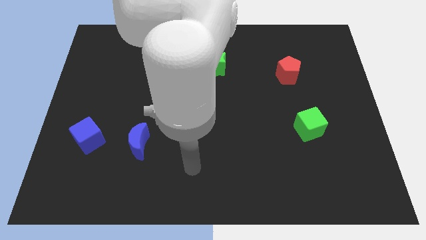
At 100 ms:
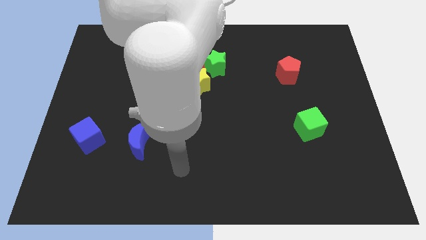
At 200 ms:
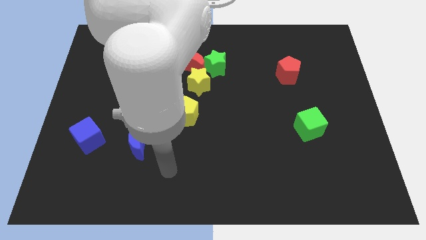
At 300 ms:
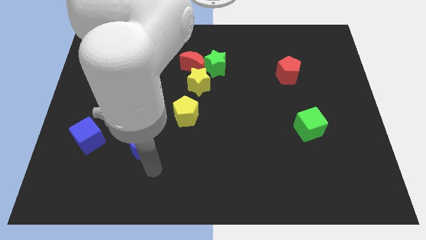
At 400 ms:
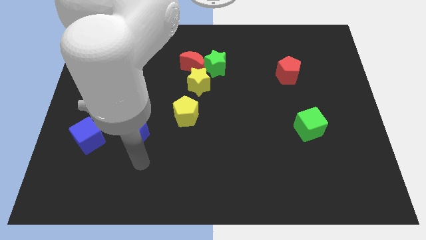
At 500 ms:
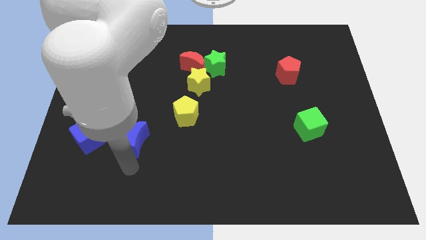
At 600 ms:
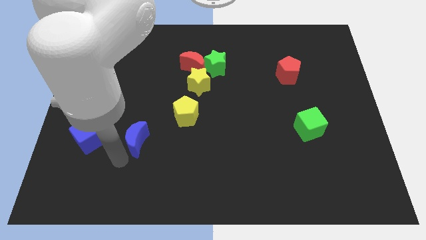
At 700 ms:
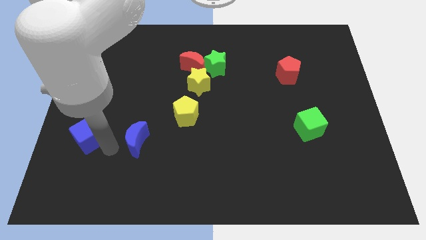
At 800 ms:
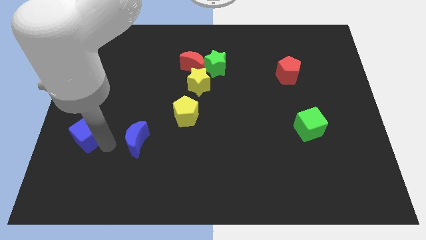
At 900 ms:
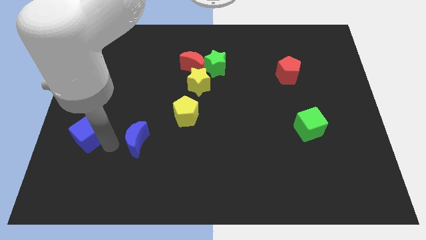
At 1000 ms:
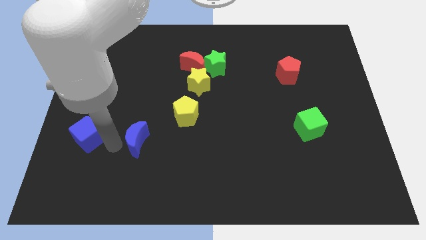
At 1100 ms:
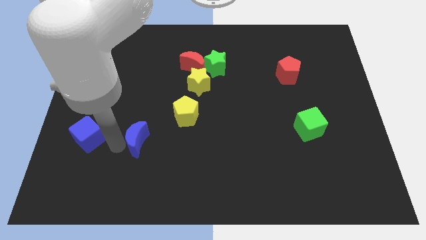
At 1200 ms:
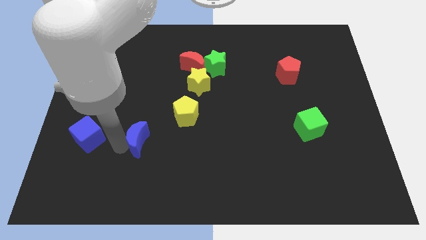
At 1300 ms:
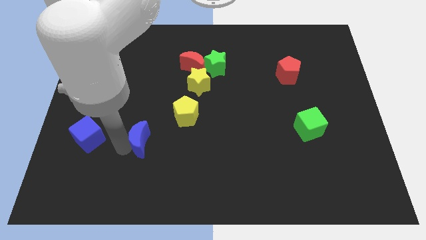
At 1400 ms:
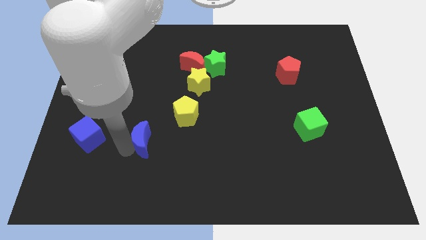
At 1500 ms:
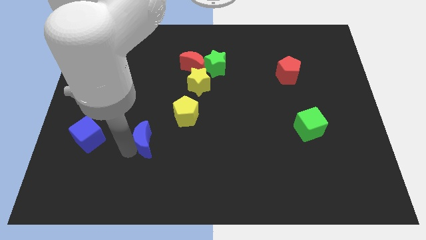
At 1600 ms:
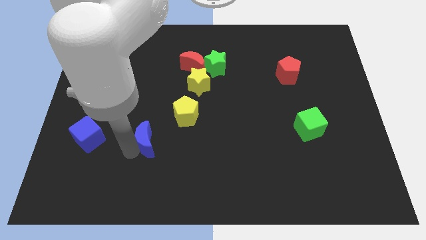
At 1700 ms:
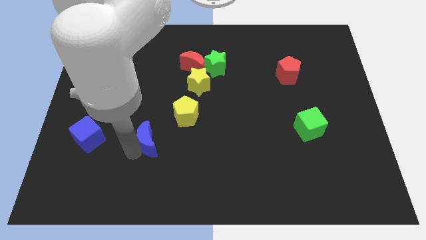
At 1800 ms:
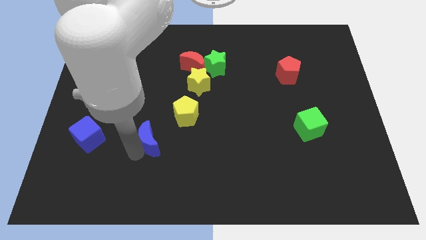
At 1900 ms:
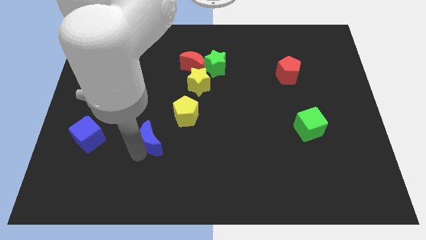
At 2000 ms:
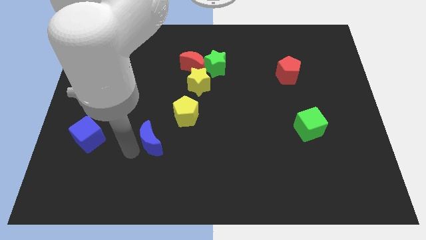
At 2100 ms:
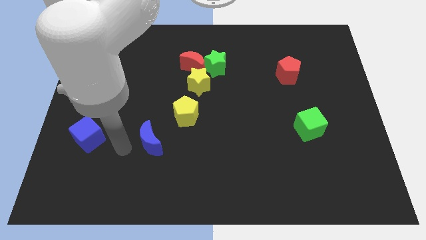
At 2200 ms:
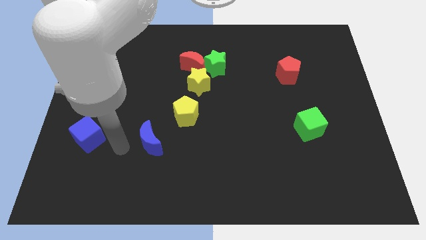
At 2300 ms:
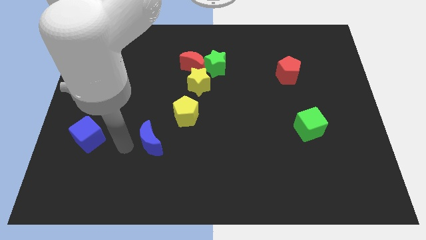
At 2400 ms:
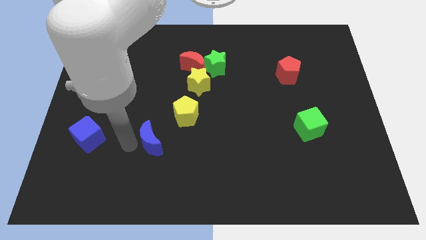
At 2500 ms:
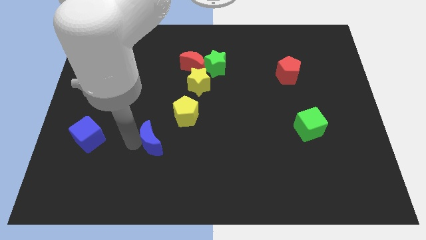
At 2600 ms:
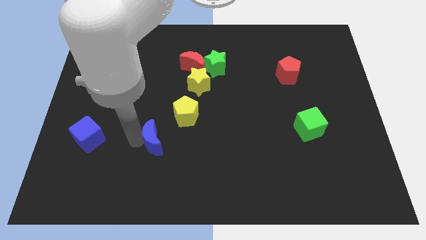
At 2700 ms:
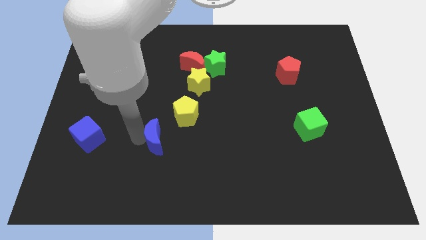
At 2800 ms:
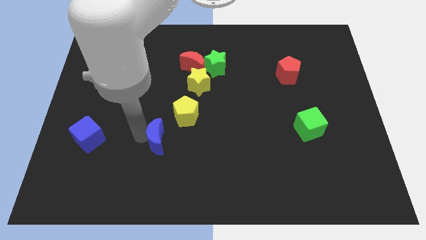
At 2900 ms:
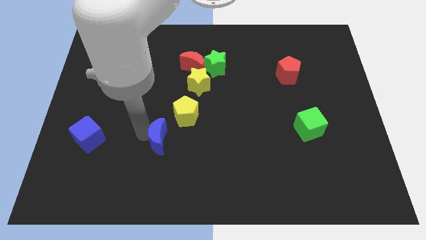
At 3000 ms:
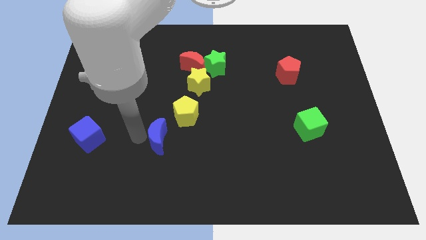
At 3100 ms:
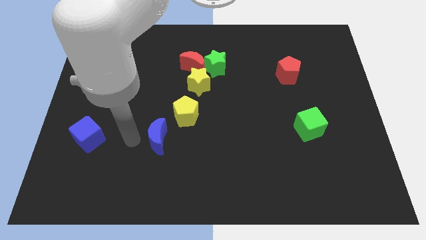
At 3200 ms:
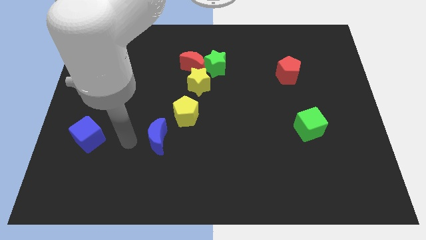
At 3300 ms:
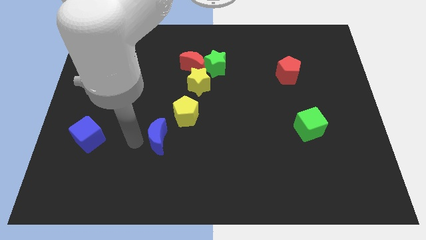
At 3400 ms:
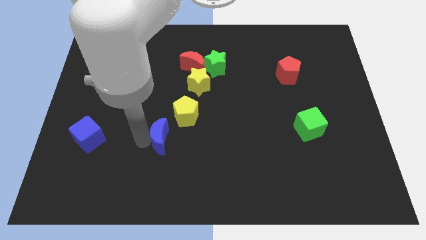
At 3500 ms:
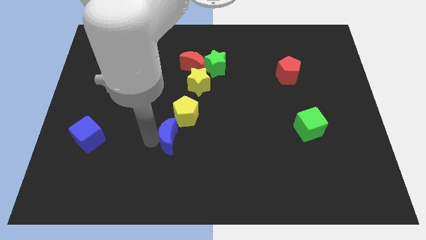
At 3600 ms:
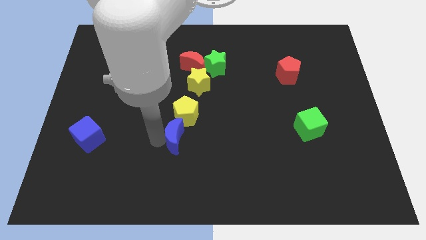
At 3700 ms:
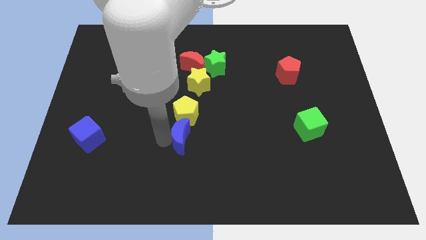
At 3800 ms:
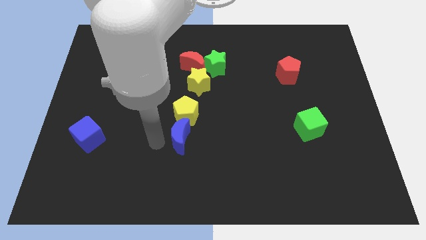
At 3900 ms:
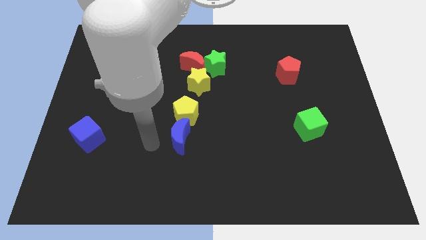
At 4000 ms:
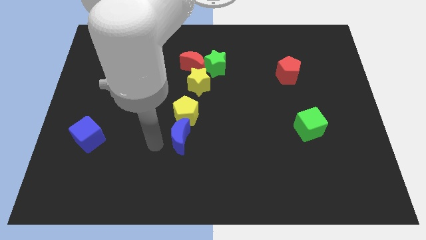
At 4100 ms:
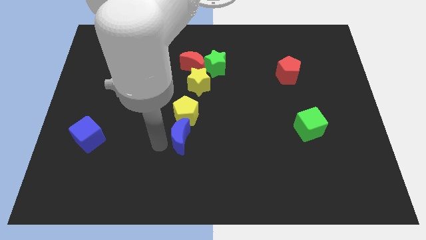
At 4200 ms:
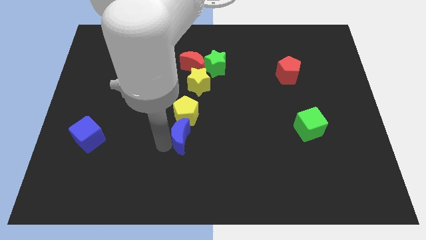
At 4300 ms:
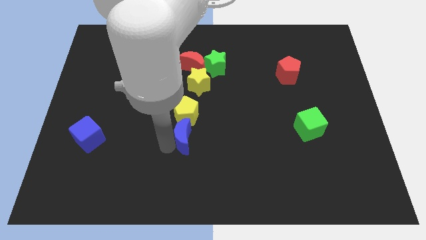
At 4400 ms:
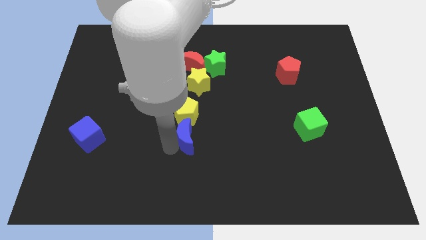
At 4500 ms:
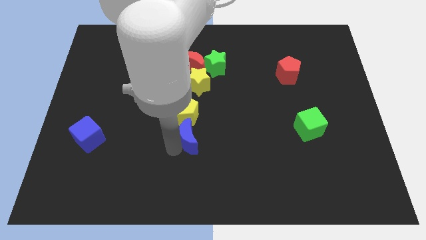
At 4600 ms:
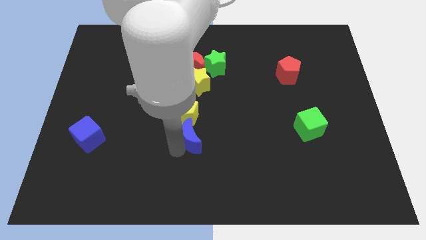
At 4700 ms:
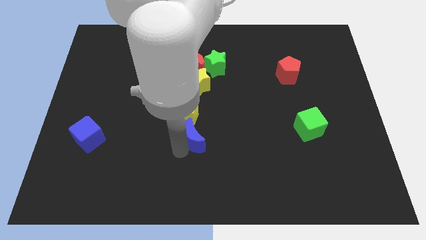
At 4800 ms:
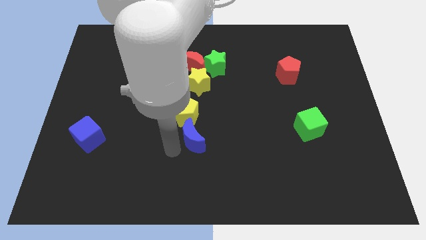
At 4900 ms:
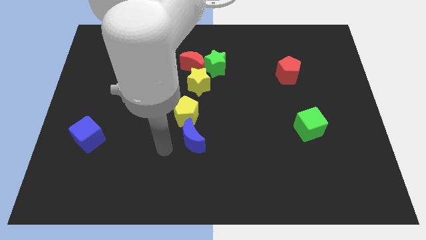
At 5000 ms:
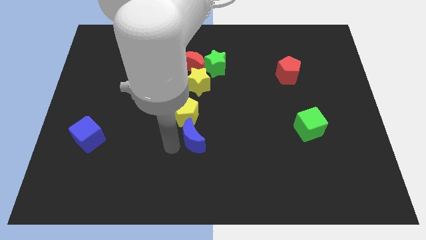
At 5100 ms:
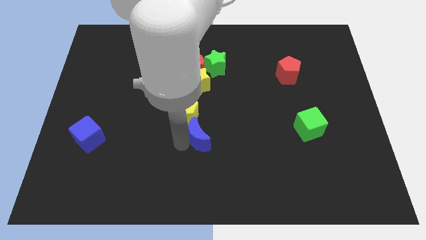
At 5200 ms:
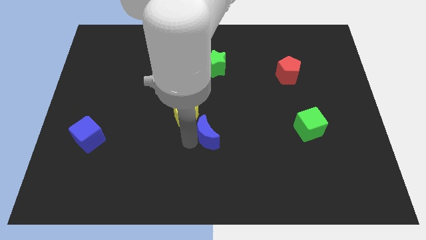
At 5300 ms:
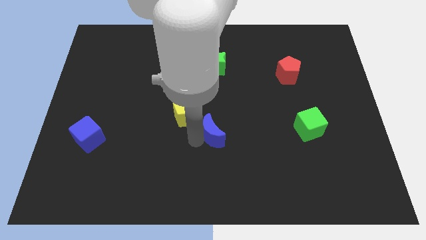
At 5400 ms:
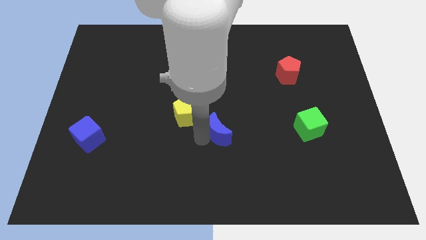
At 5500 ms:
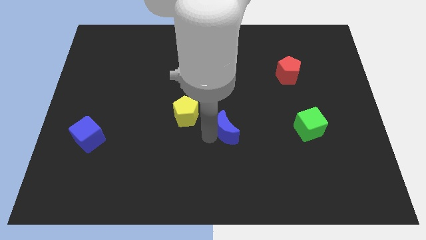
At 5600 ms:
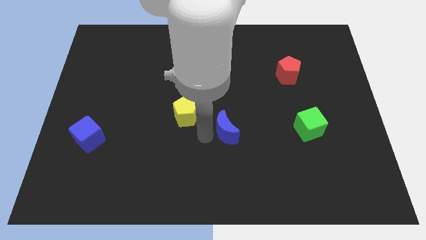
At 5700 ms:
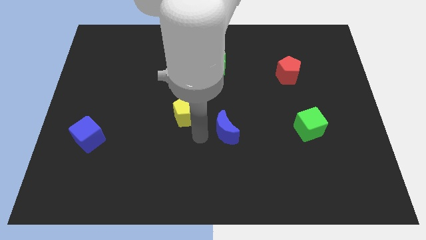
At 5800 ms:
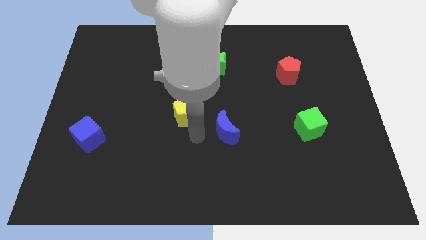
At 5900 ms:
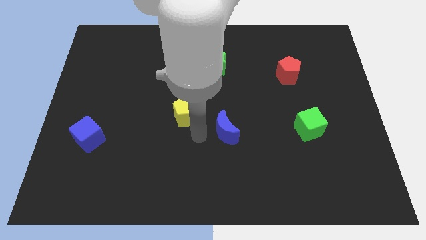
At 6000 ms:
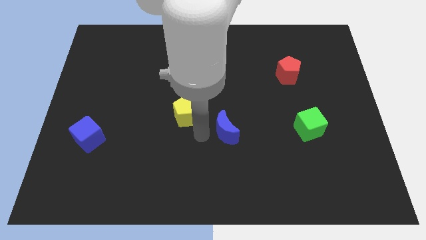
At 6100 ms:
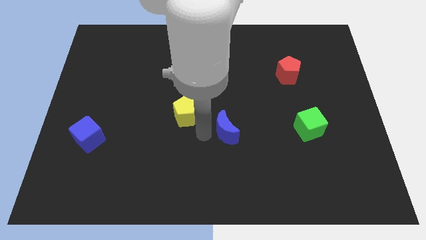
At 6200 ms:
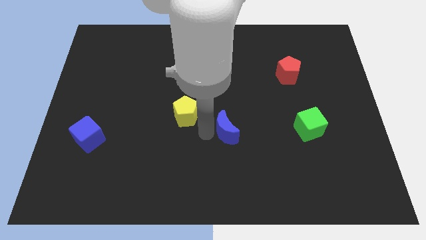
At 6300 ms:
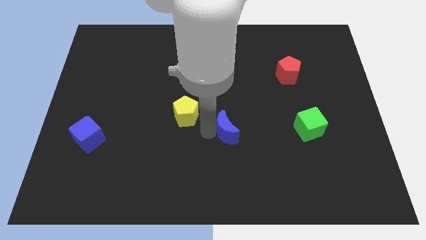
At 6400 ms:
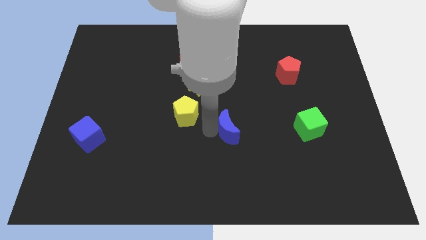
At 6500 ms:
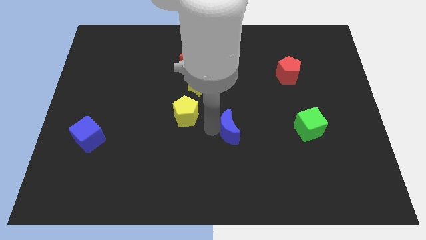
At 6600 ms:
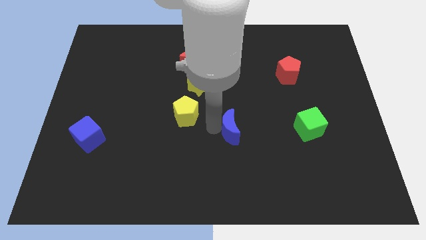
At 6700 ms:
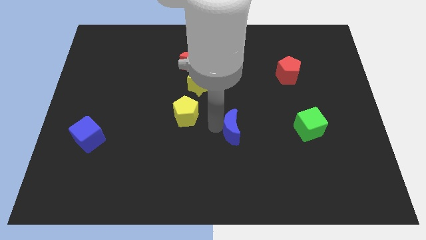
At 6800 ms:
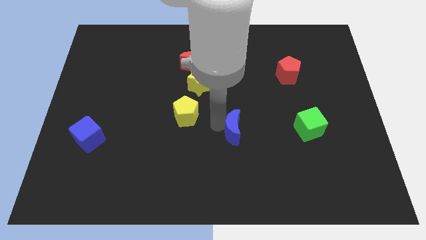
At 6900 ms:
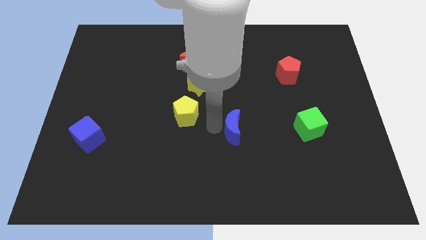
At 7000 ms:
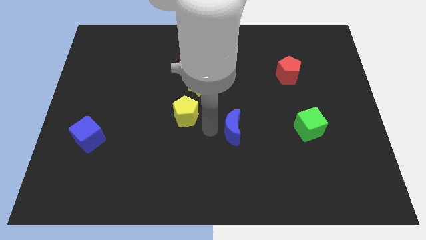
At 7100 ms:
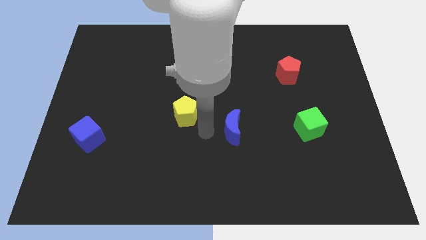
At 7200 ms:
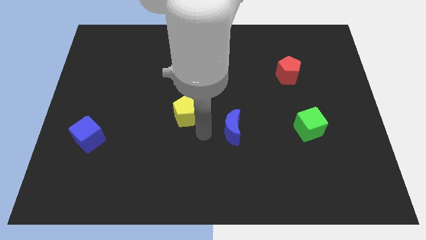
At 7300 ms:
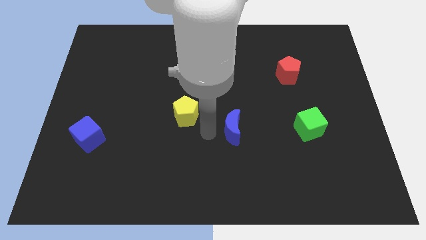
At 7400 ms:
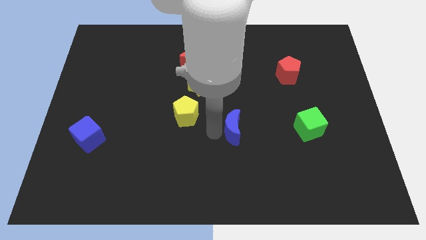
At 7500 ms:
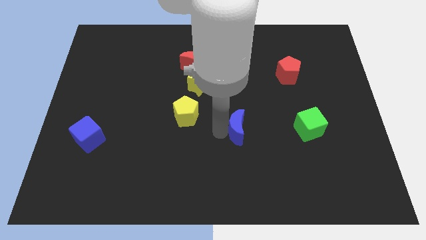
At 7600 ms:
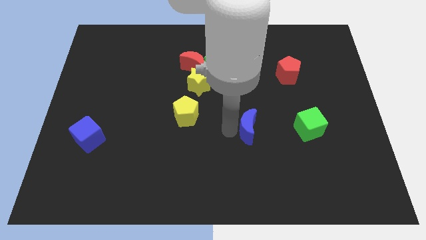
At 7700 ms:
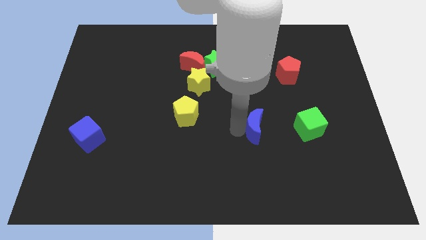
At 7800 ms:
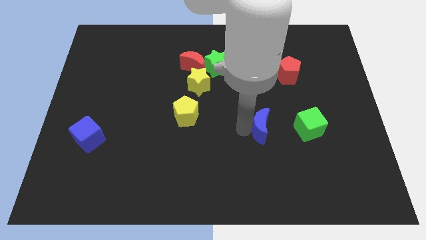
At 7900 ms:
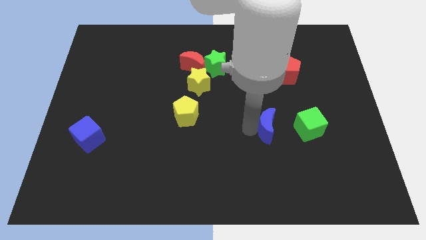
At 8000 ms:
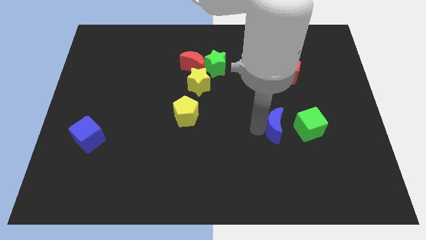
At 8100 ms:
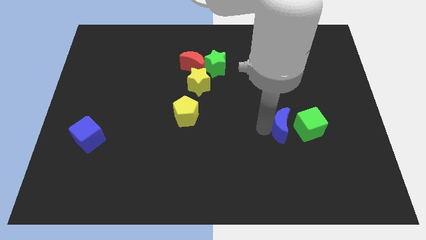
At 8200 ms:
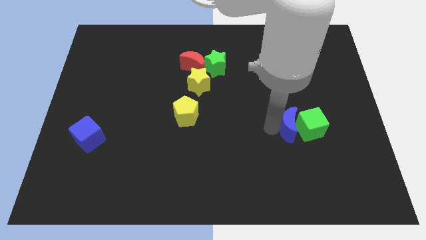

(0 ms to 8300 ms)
push the blue moon to the green cube
